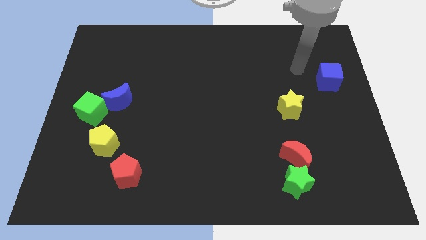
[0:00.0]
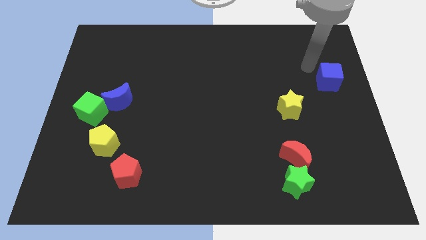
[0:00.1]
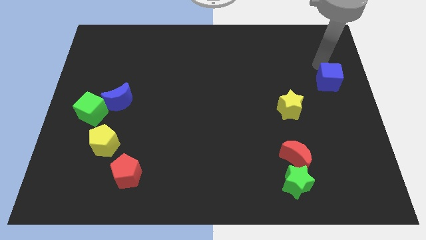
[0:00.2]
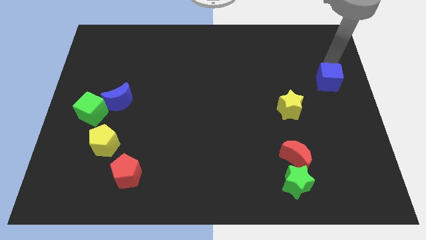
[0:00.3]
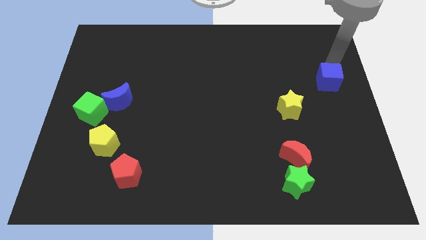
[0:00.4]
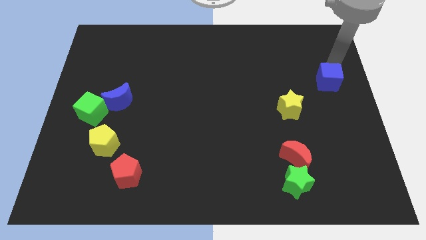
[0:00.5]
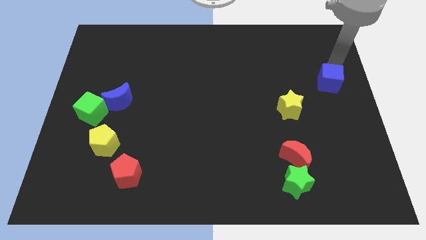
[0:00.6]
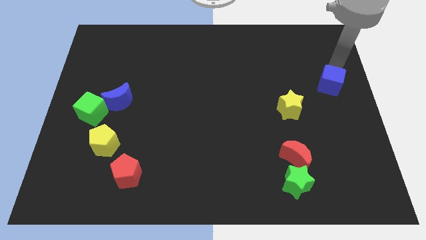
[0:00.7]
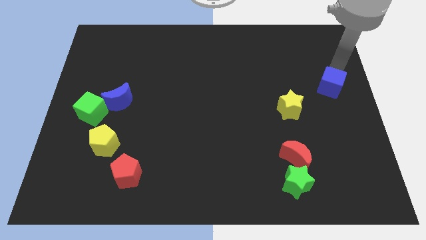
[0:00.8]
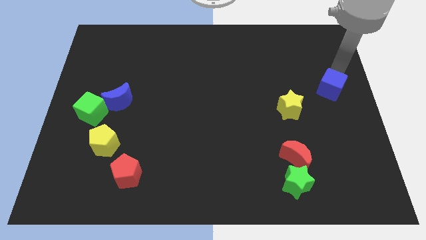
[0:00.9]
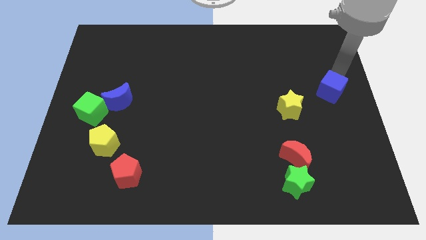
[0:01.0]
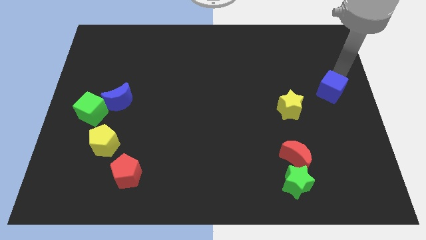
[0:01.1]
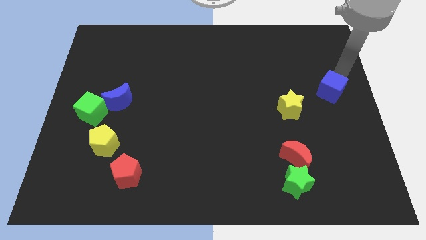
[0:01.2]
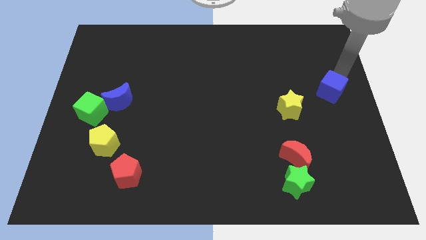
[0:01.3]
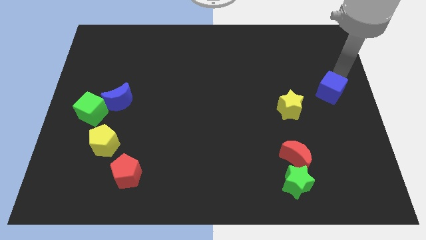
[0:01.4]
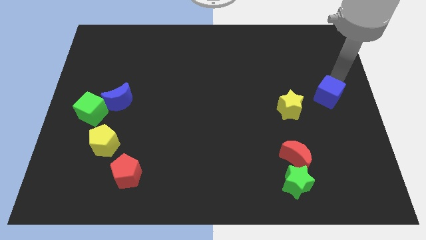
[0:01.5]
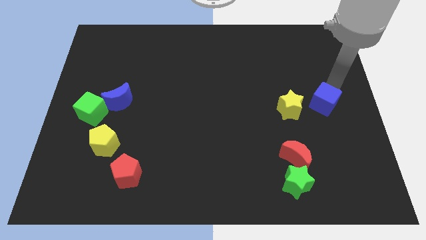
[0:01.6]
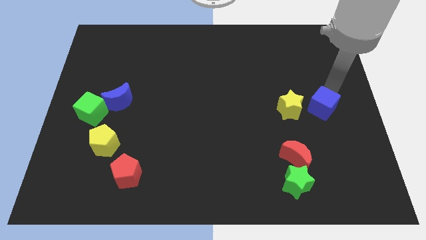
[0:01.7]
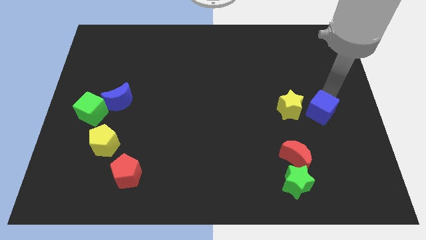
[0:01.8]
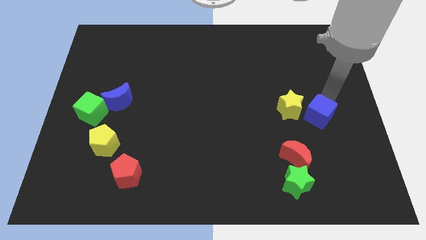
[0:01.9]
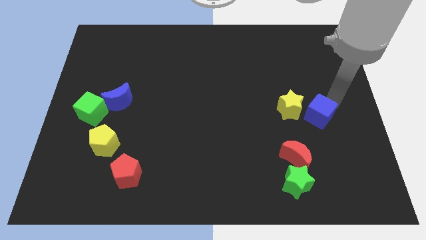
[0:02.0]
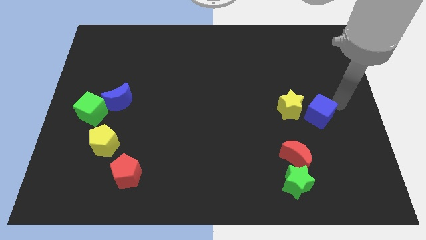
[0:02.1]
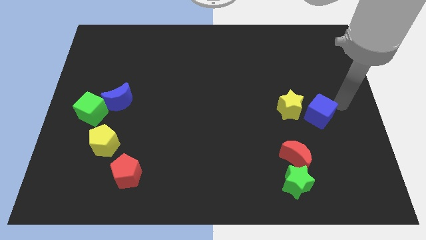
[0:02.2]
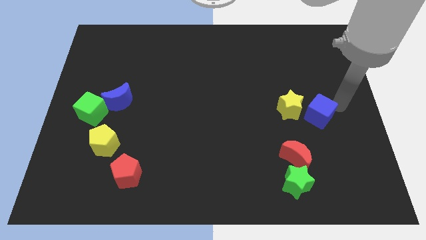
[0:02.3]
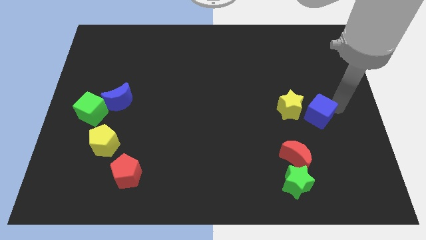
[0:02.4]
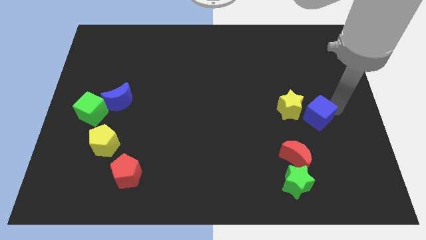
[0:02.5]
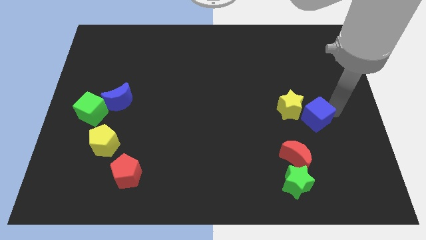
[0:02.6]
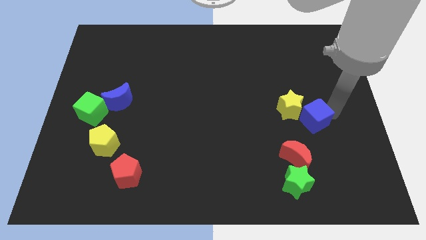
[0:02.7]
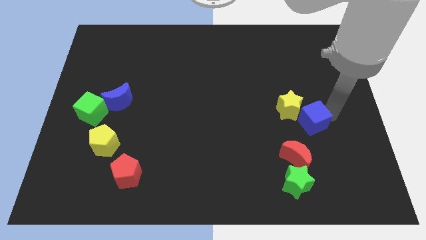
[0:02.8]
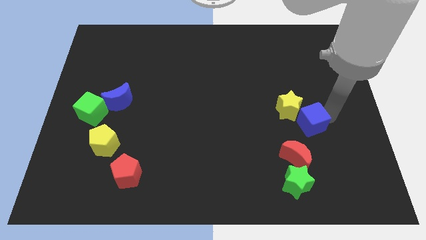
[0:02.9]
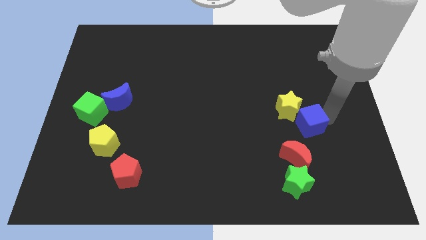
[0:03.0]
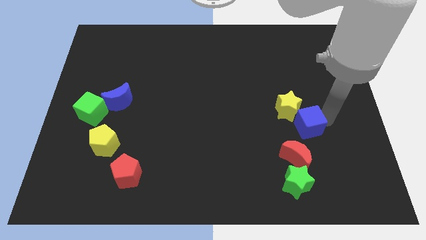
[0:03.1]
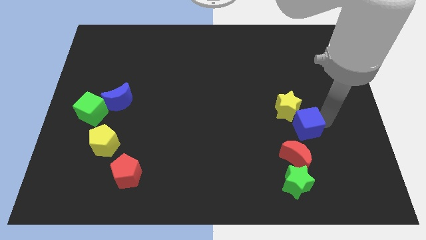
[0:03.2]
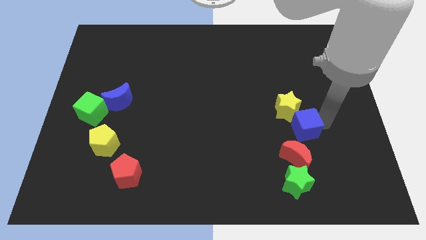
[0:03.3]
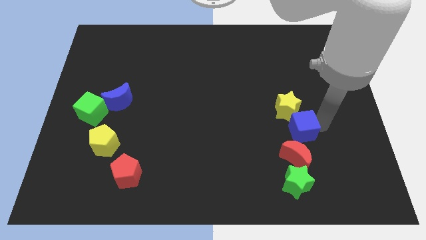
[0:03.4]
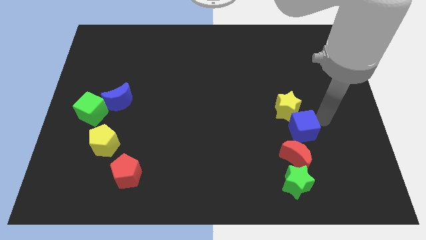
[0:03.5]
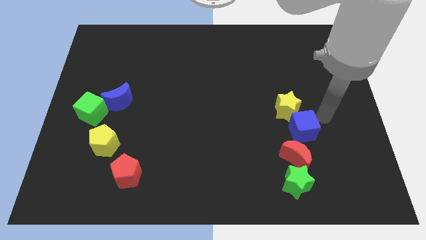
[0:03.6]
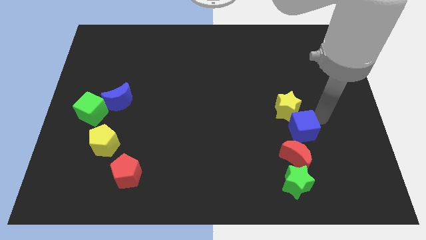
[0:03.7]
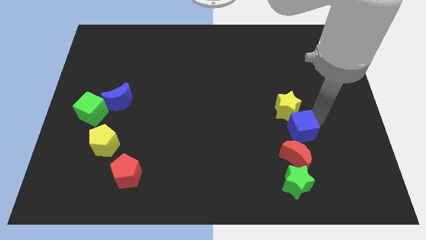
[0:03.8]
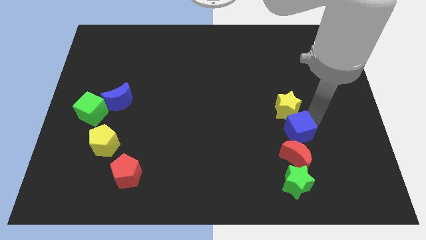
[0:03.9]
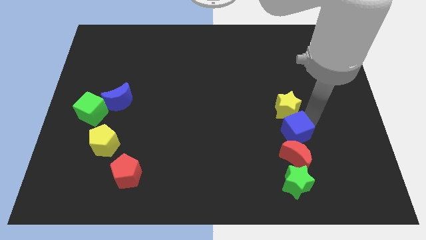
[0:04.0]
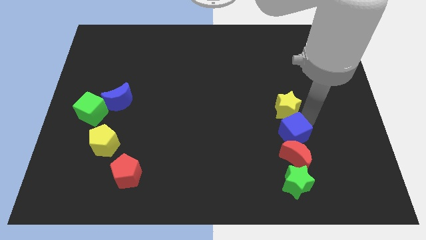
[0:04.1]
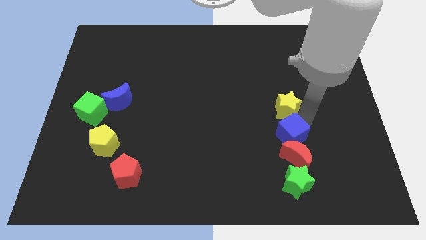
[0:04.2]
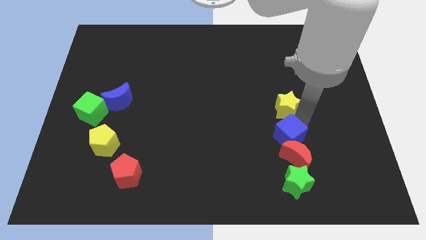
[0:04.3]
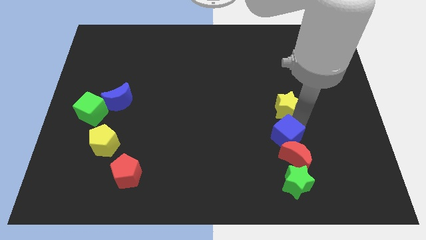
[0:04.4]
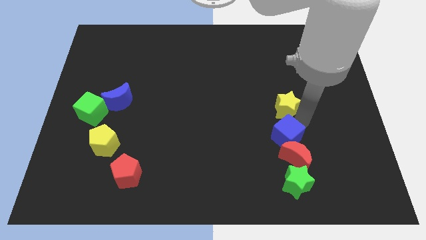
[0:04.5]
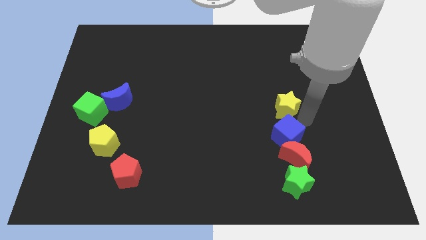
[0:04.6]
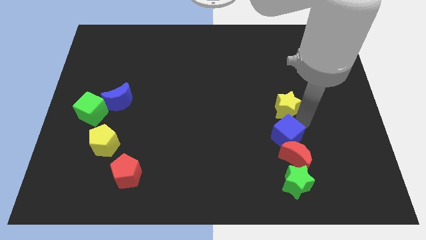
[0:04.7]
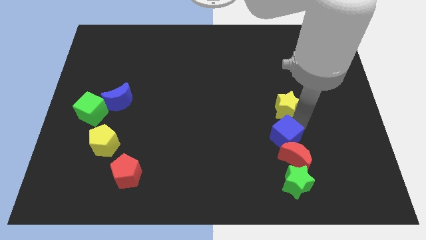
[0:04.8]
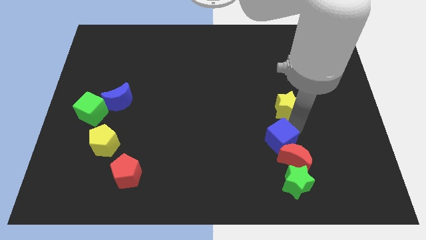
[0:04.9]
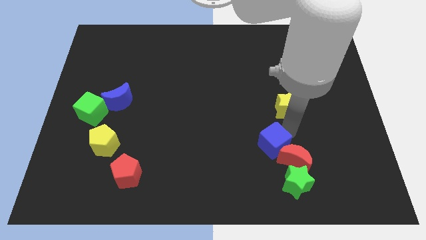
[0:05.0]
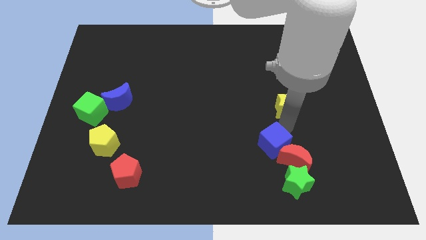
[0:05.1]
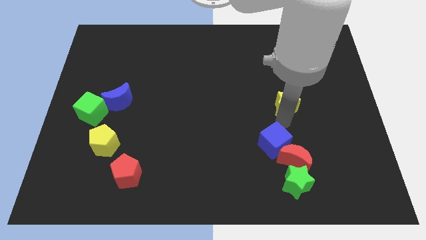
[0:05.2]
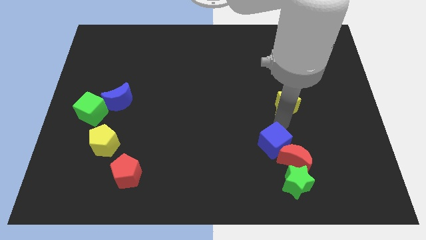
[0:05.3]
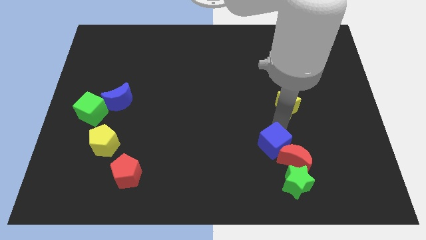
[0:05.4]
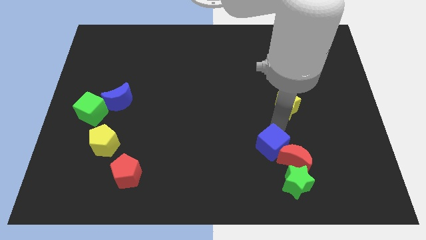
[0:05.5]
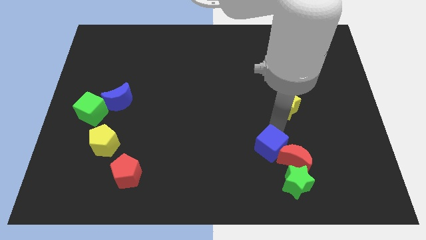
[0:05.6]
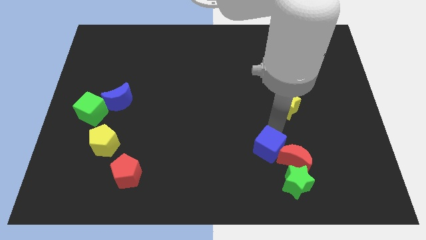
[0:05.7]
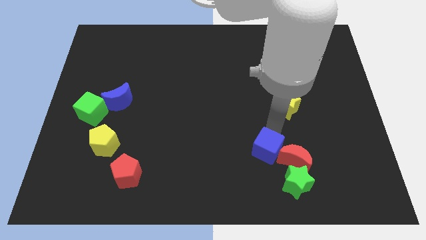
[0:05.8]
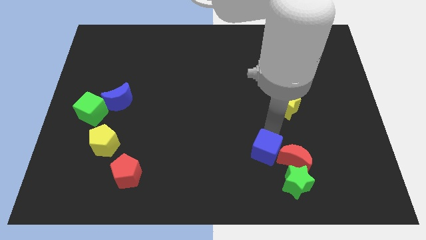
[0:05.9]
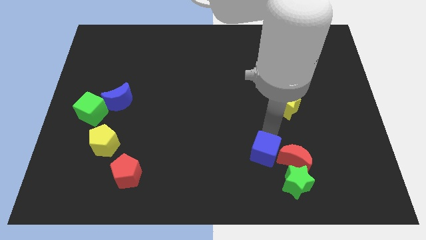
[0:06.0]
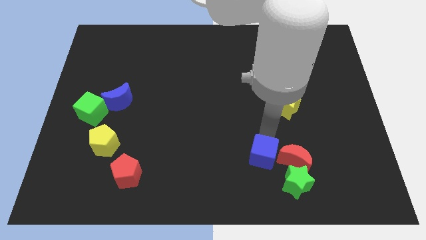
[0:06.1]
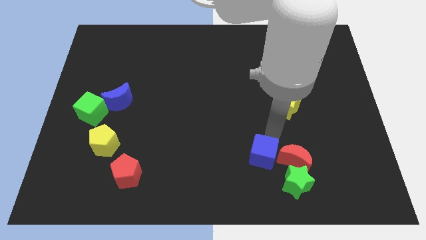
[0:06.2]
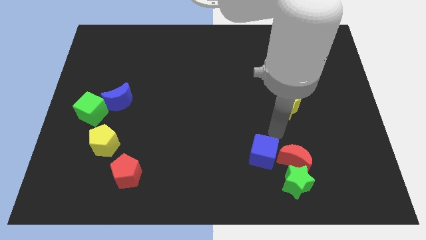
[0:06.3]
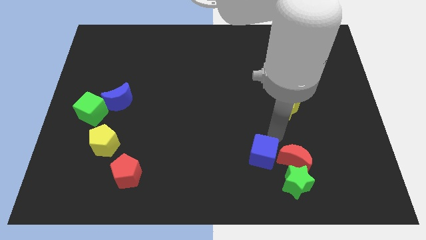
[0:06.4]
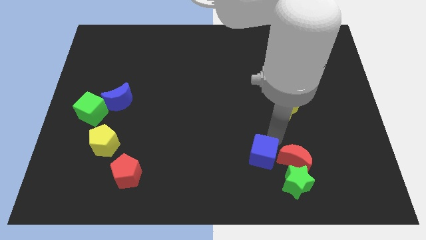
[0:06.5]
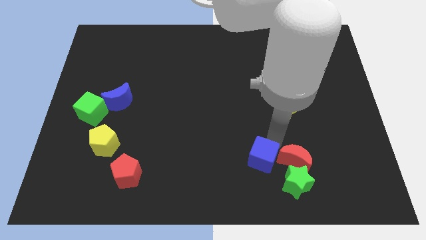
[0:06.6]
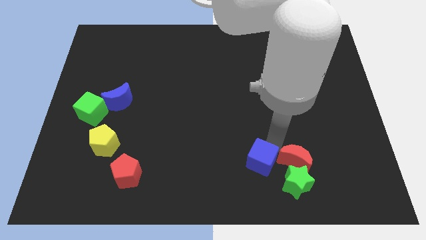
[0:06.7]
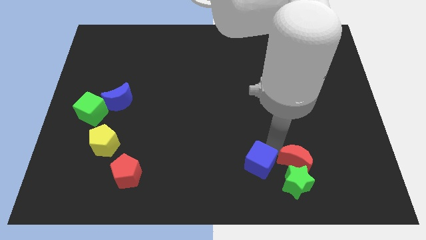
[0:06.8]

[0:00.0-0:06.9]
move the blue cube to the left of the green star
